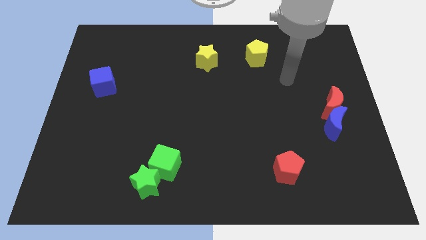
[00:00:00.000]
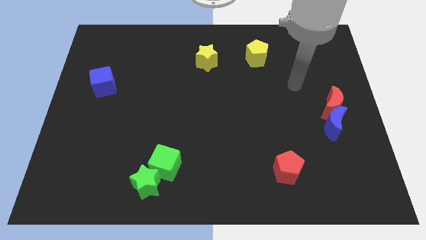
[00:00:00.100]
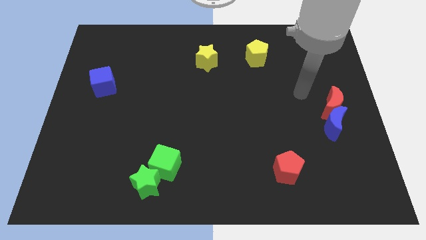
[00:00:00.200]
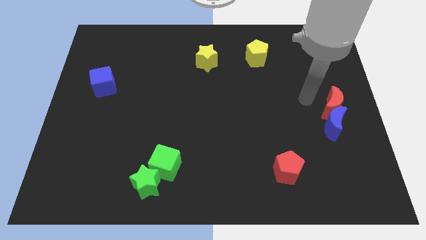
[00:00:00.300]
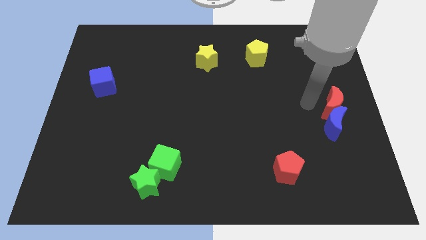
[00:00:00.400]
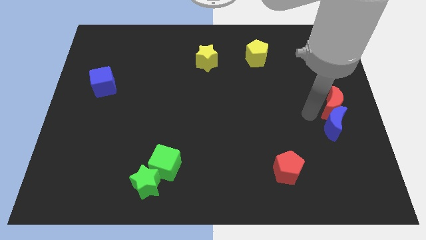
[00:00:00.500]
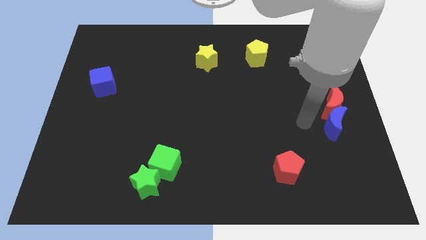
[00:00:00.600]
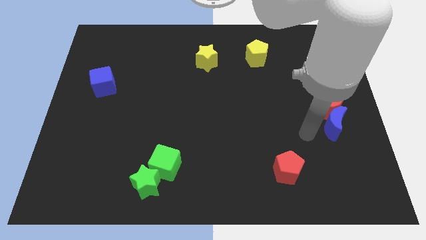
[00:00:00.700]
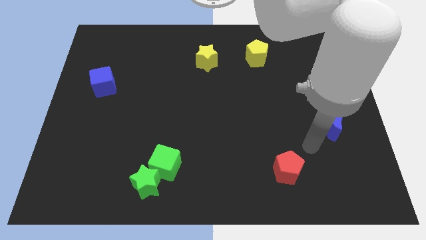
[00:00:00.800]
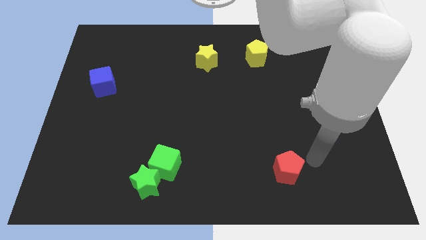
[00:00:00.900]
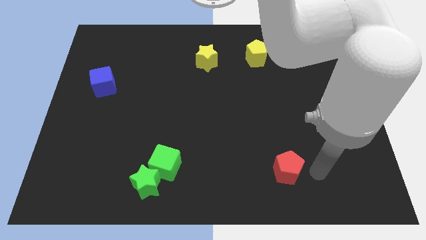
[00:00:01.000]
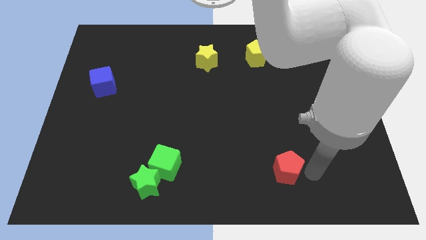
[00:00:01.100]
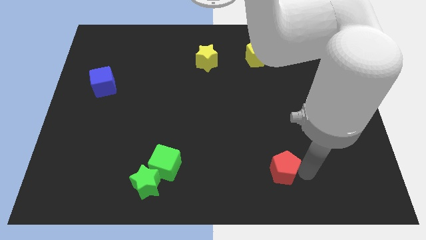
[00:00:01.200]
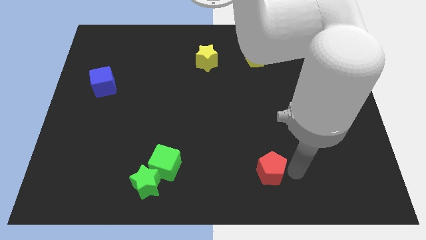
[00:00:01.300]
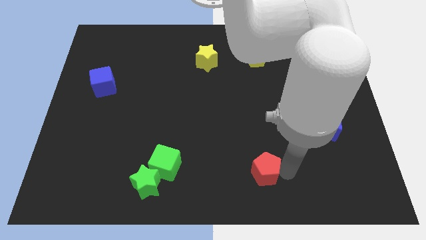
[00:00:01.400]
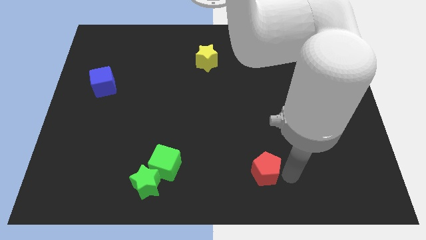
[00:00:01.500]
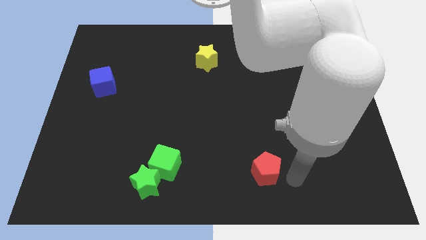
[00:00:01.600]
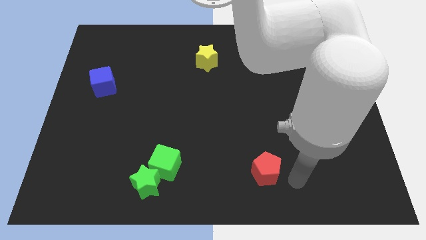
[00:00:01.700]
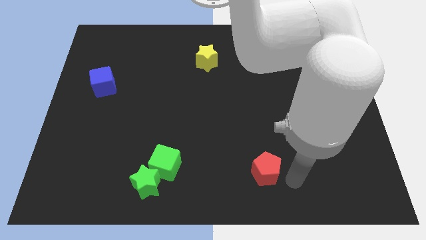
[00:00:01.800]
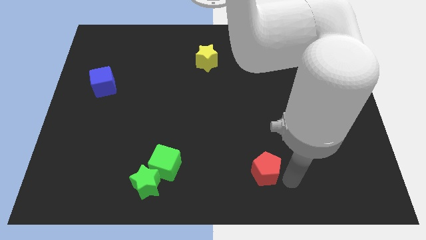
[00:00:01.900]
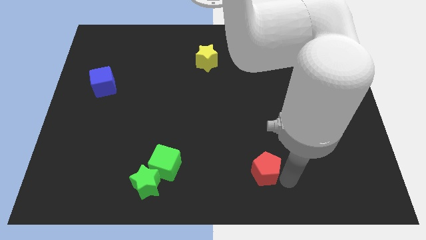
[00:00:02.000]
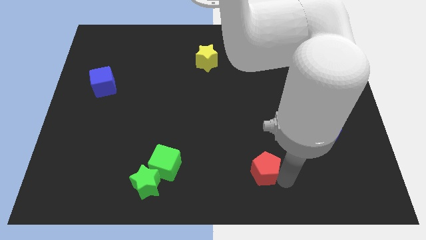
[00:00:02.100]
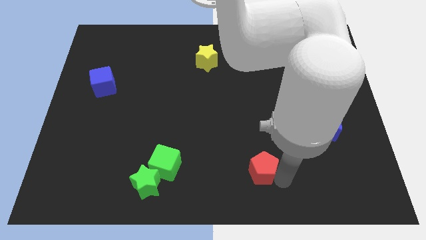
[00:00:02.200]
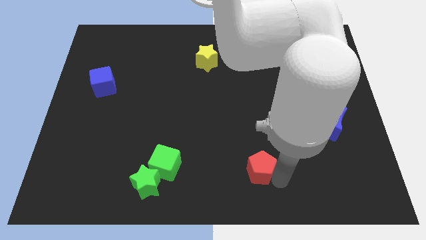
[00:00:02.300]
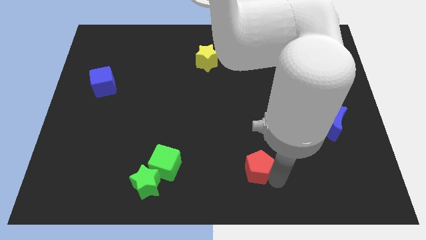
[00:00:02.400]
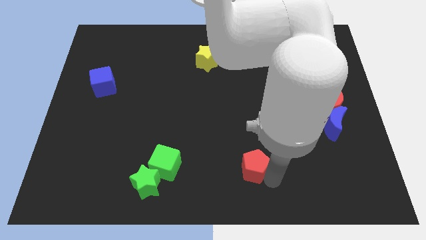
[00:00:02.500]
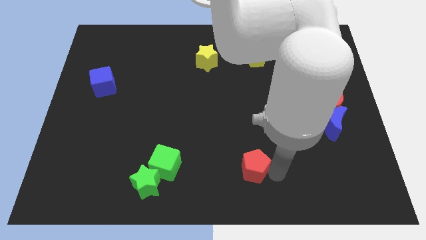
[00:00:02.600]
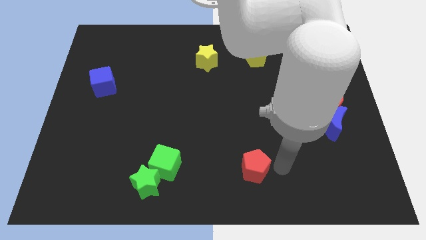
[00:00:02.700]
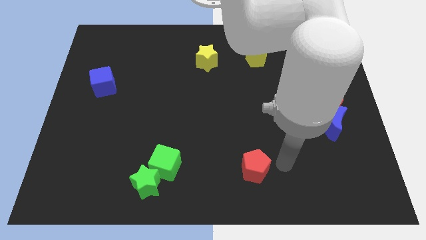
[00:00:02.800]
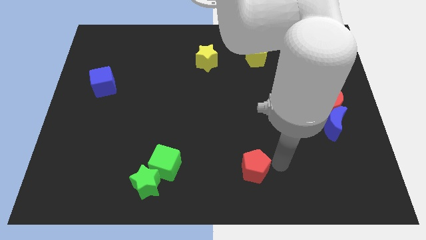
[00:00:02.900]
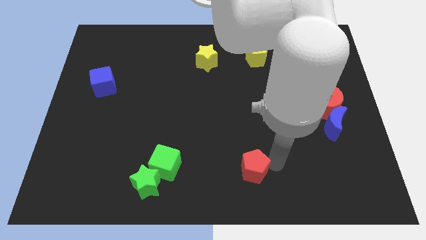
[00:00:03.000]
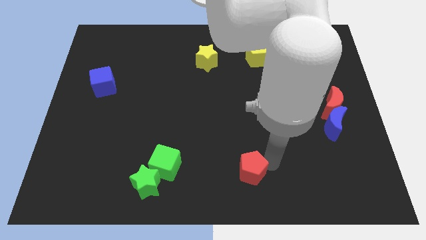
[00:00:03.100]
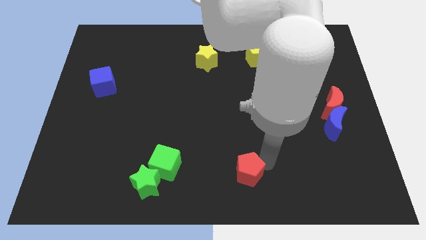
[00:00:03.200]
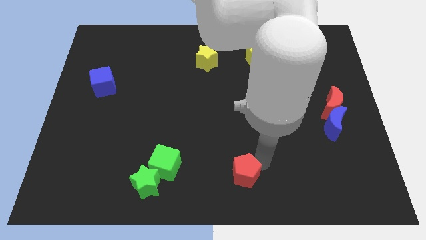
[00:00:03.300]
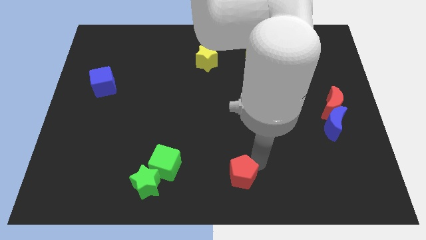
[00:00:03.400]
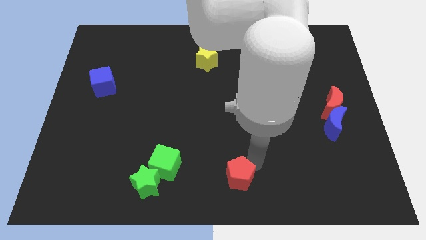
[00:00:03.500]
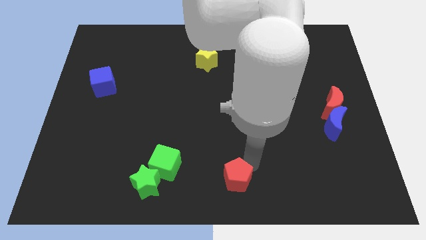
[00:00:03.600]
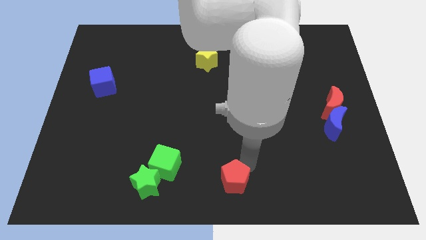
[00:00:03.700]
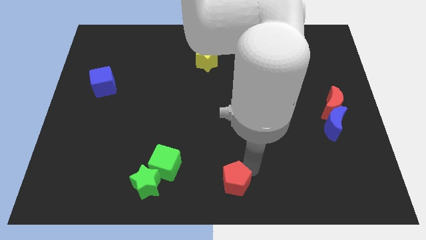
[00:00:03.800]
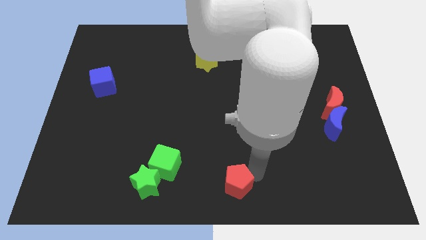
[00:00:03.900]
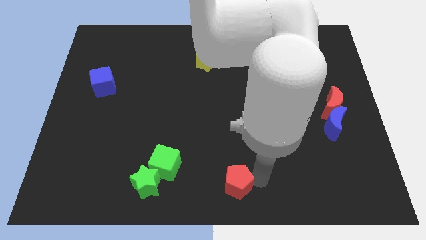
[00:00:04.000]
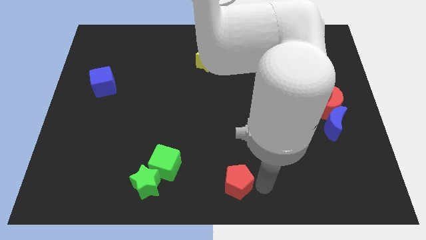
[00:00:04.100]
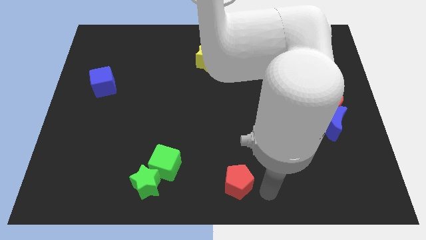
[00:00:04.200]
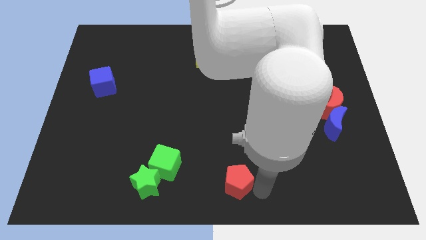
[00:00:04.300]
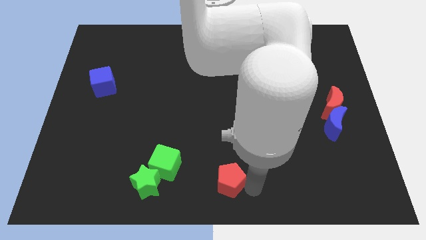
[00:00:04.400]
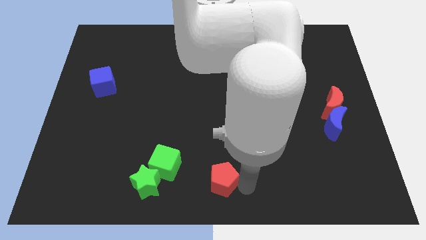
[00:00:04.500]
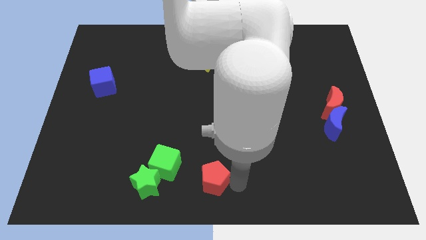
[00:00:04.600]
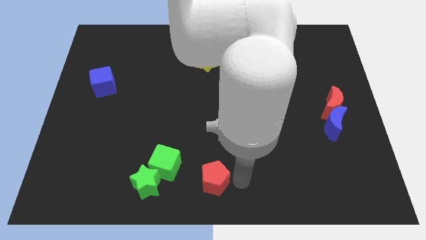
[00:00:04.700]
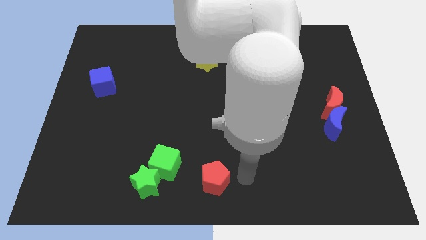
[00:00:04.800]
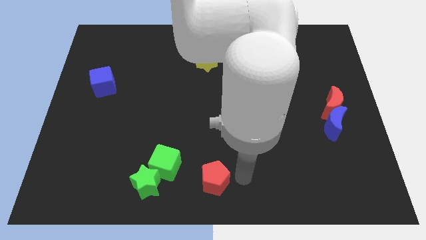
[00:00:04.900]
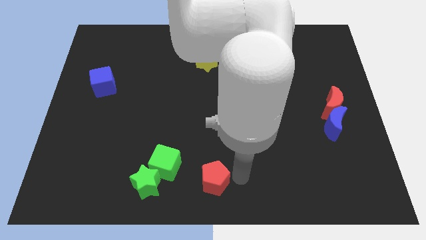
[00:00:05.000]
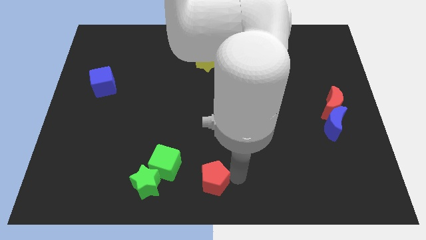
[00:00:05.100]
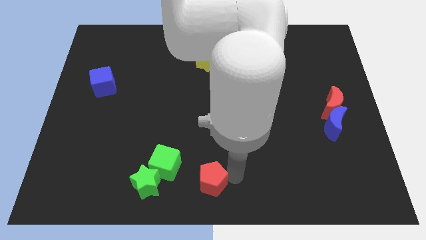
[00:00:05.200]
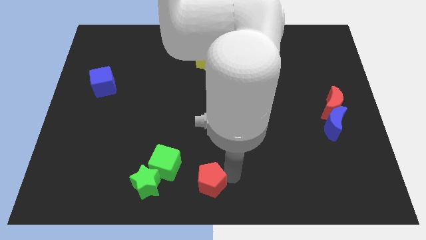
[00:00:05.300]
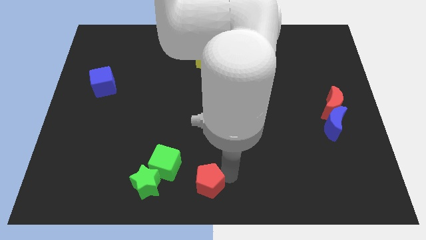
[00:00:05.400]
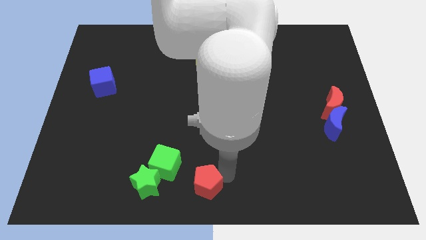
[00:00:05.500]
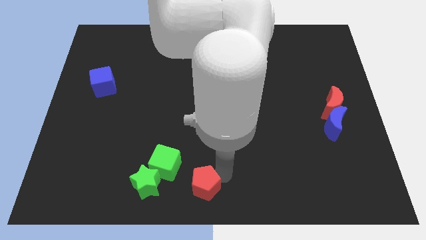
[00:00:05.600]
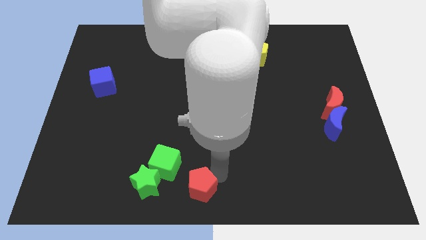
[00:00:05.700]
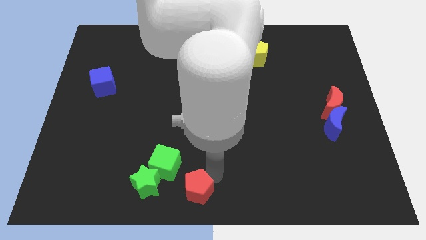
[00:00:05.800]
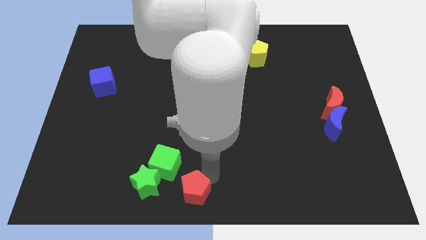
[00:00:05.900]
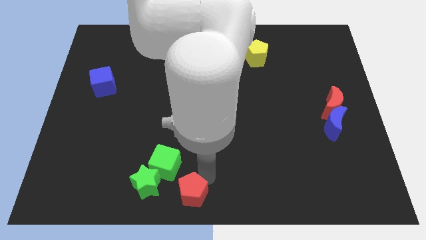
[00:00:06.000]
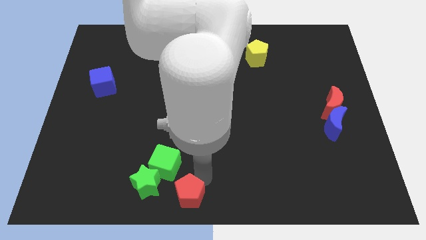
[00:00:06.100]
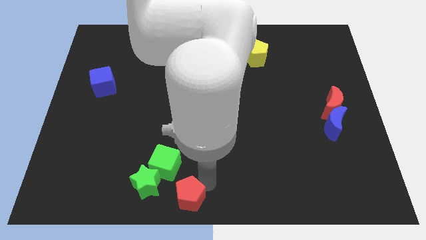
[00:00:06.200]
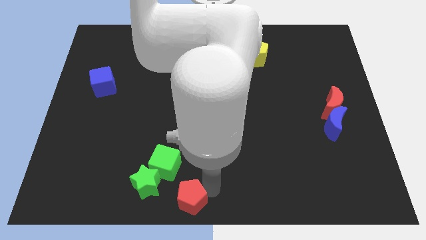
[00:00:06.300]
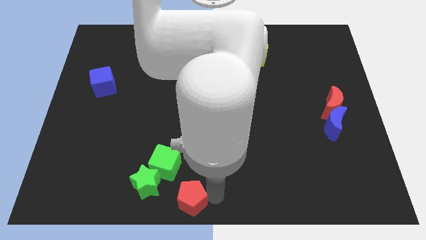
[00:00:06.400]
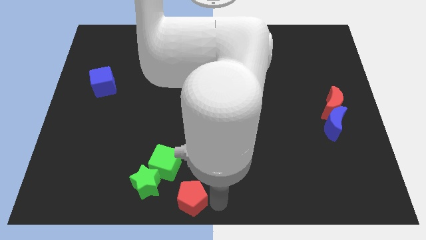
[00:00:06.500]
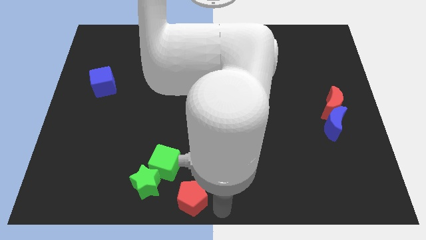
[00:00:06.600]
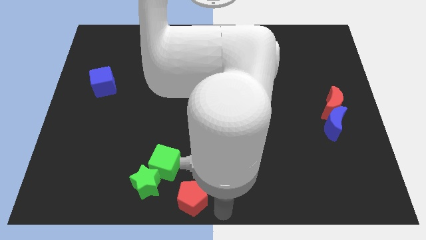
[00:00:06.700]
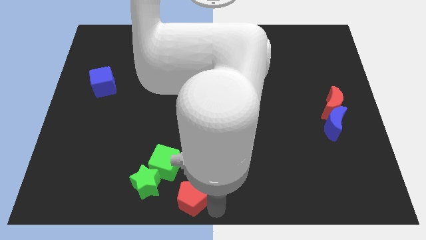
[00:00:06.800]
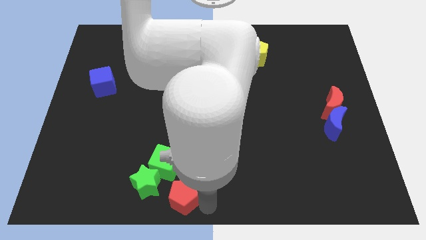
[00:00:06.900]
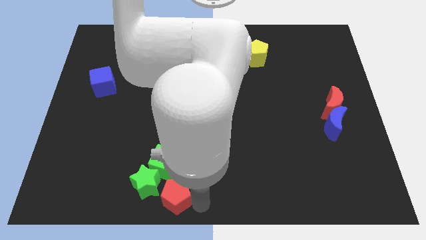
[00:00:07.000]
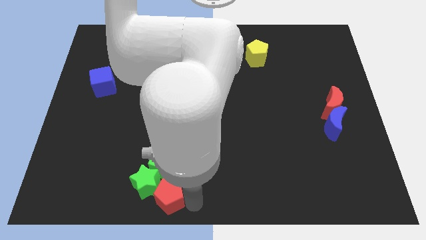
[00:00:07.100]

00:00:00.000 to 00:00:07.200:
push the red pentagon close to the green star
